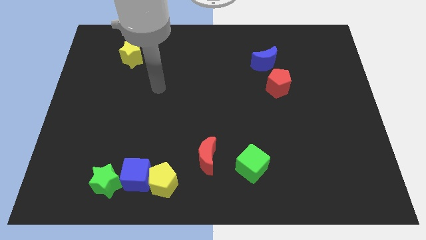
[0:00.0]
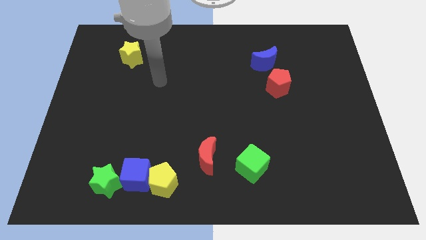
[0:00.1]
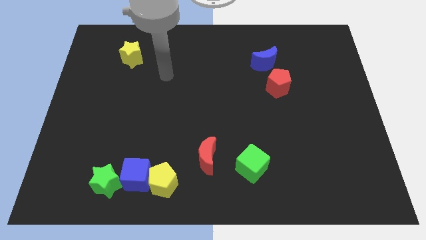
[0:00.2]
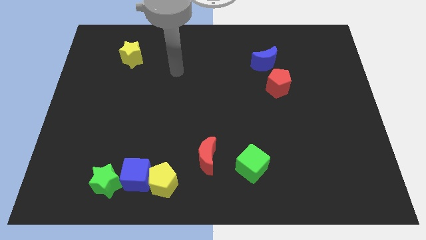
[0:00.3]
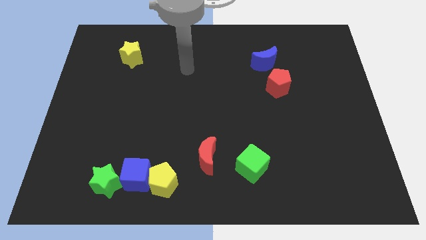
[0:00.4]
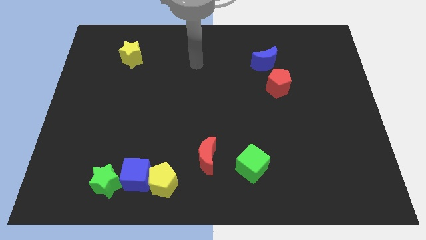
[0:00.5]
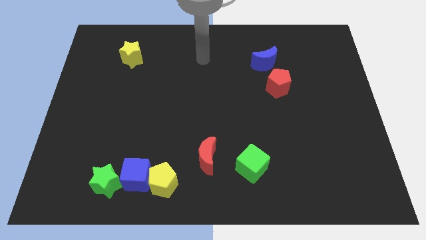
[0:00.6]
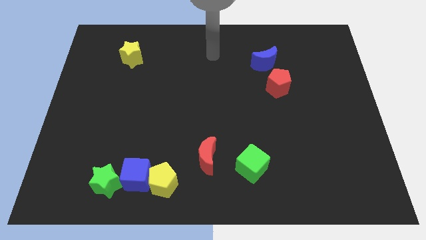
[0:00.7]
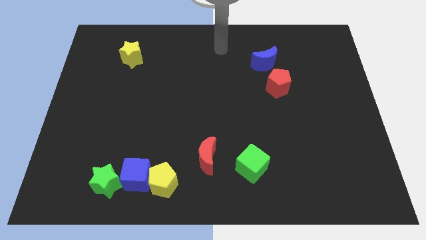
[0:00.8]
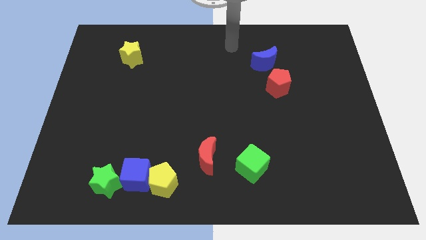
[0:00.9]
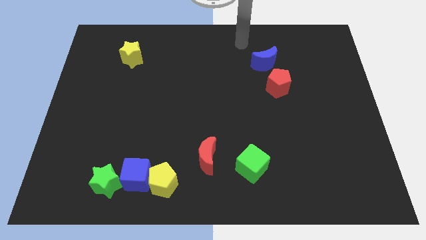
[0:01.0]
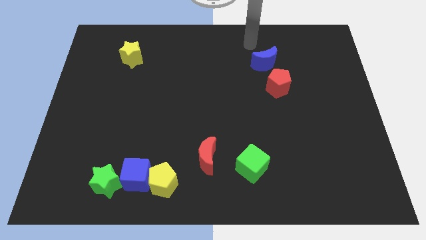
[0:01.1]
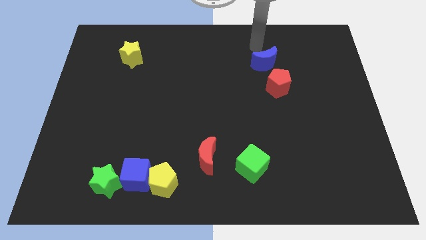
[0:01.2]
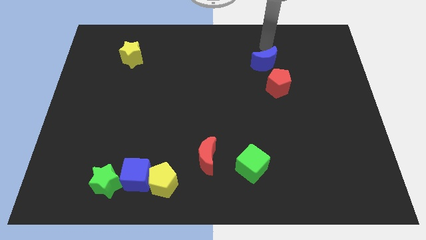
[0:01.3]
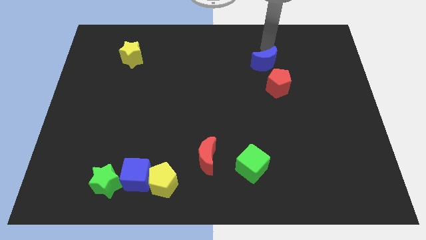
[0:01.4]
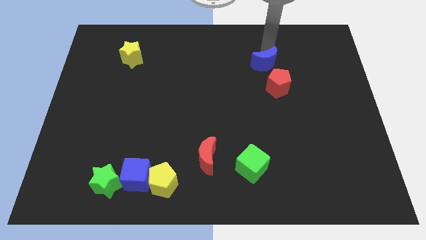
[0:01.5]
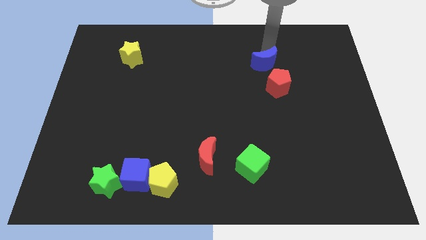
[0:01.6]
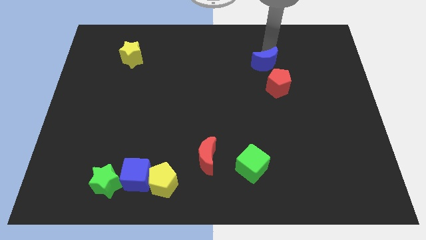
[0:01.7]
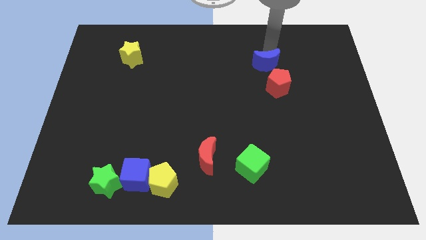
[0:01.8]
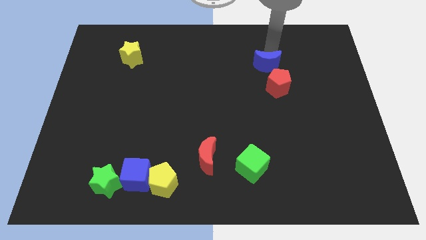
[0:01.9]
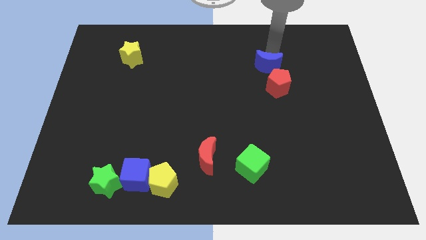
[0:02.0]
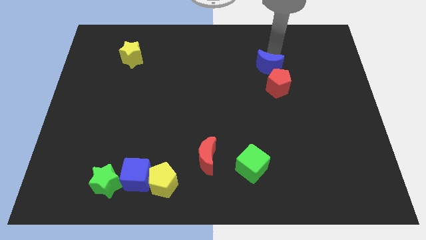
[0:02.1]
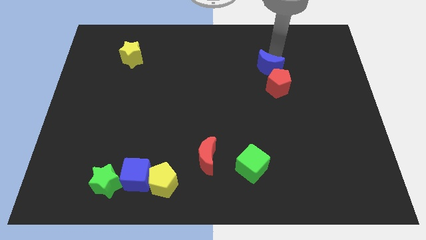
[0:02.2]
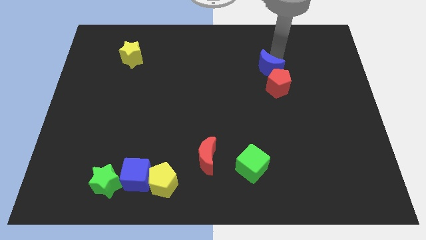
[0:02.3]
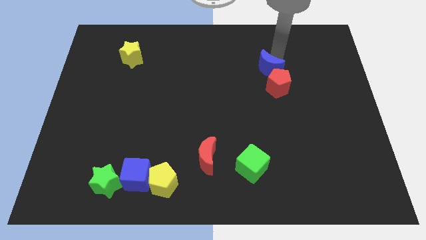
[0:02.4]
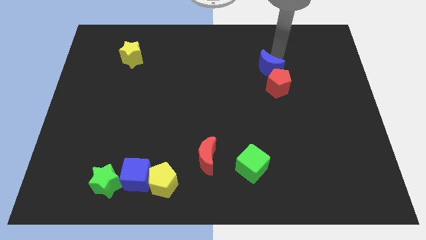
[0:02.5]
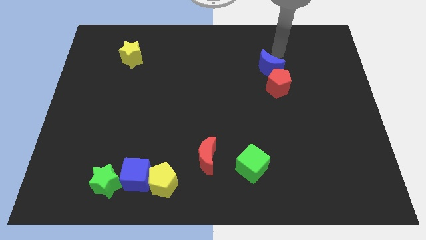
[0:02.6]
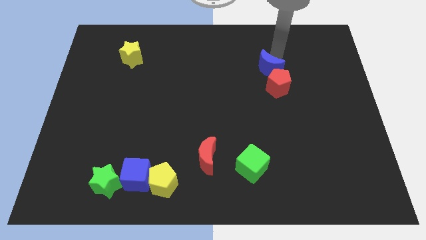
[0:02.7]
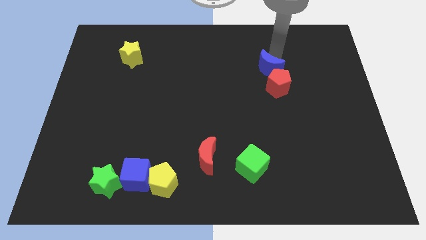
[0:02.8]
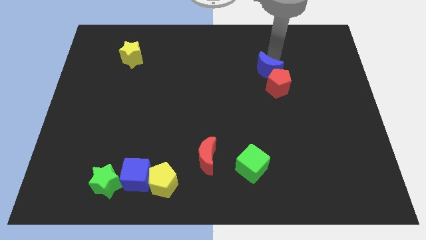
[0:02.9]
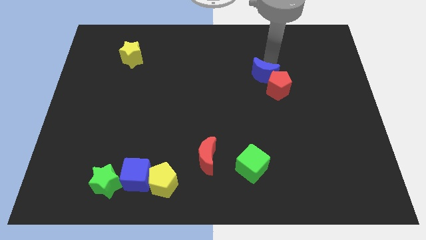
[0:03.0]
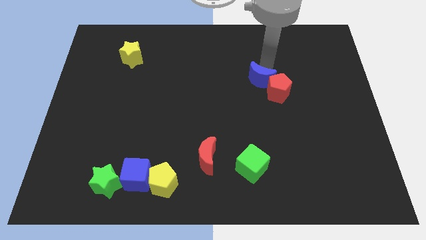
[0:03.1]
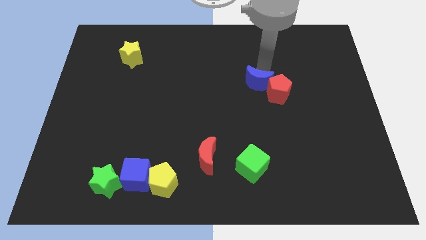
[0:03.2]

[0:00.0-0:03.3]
slide the blue moon a little bit down

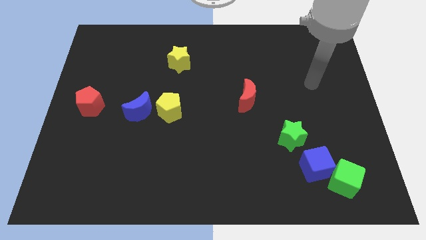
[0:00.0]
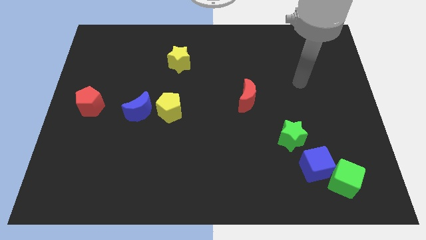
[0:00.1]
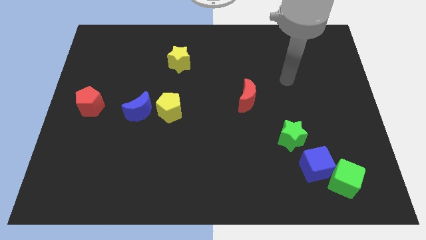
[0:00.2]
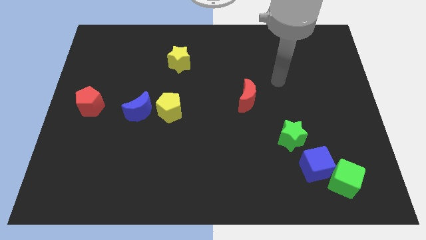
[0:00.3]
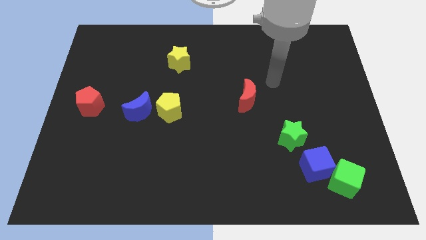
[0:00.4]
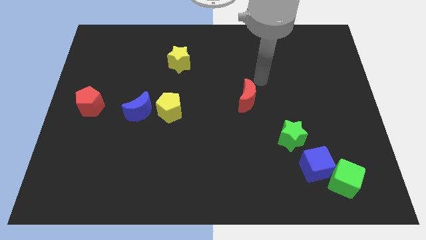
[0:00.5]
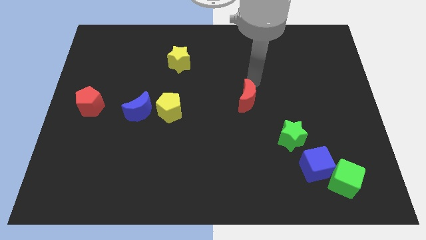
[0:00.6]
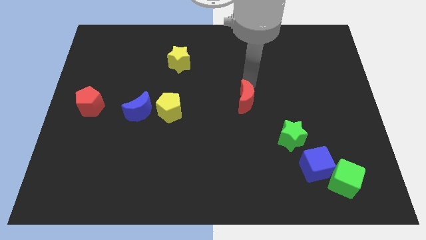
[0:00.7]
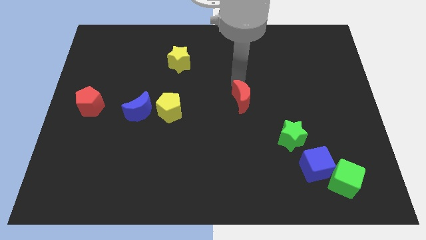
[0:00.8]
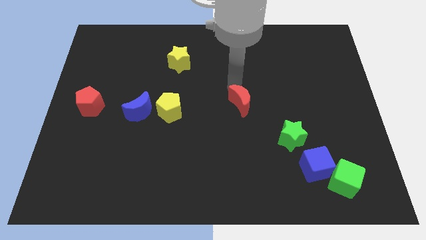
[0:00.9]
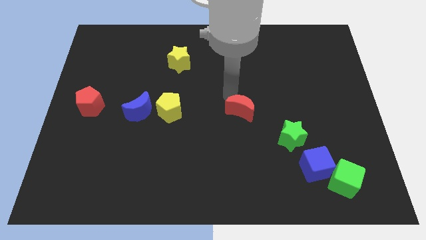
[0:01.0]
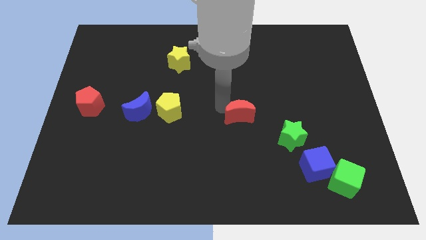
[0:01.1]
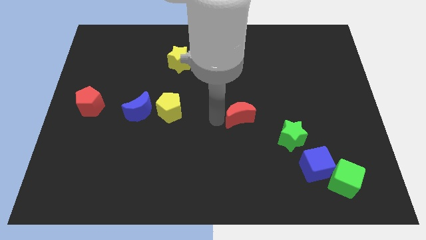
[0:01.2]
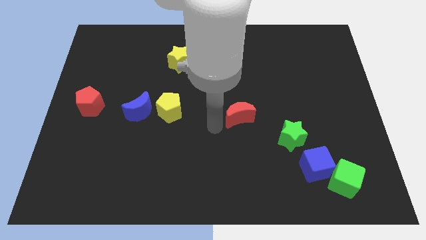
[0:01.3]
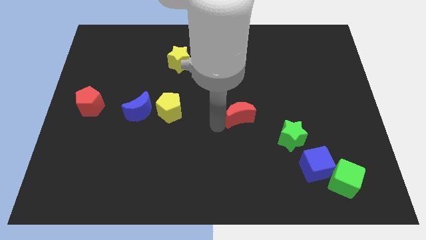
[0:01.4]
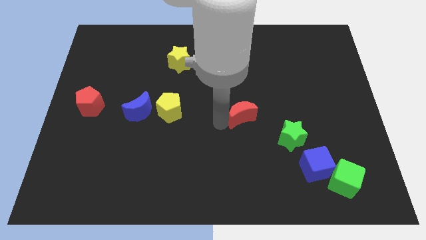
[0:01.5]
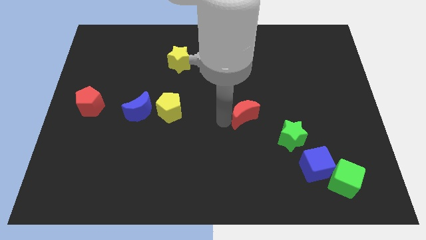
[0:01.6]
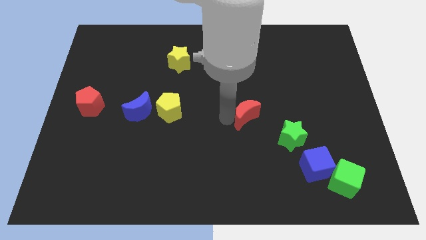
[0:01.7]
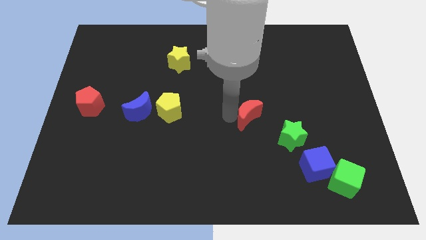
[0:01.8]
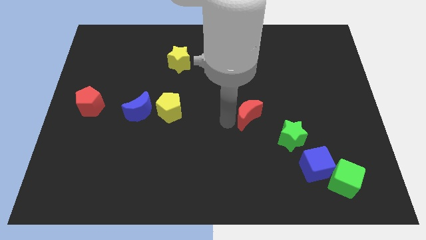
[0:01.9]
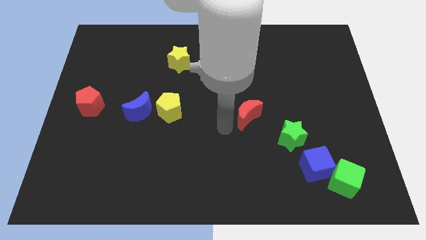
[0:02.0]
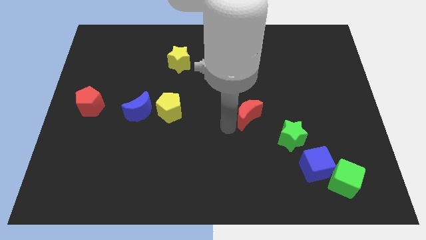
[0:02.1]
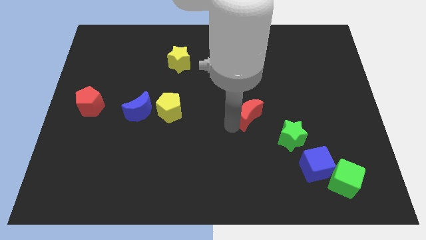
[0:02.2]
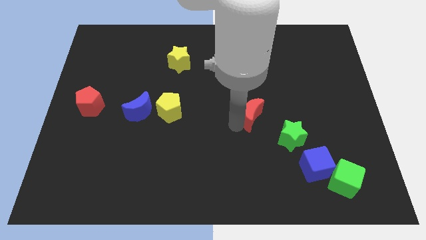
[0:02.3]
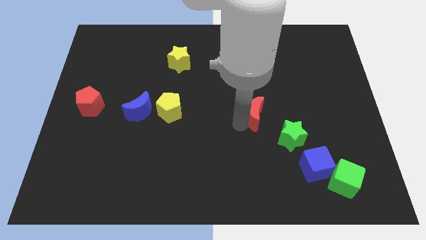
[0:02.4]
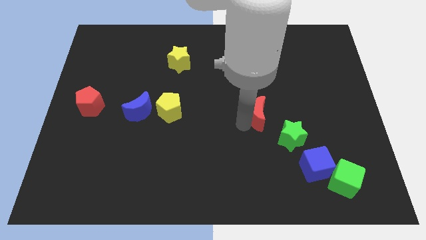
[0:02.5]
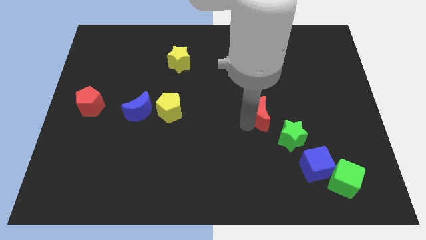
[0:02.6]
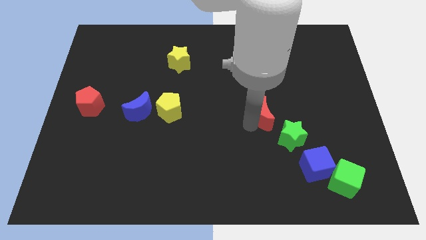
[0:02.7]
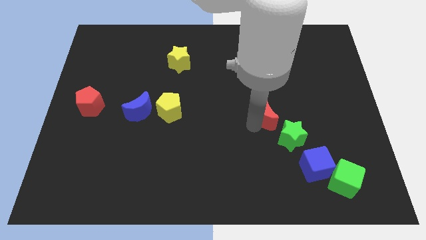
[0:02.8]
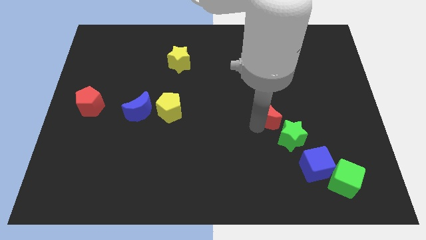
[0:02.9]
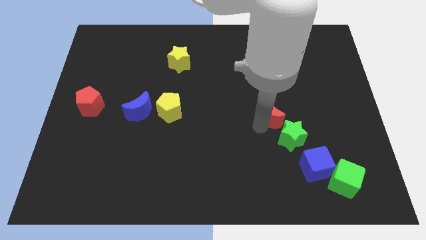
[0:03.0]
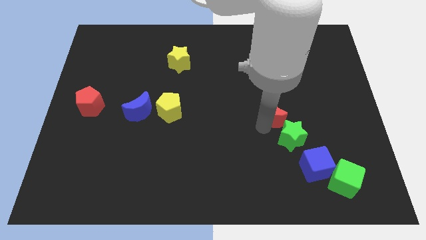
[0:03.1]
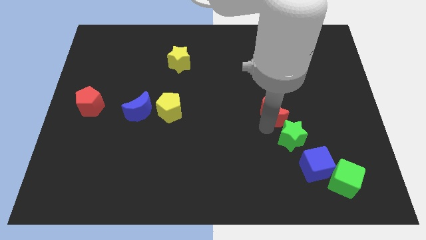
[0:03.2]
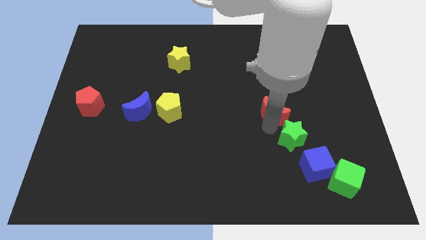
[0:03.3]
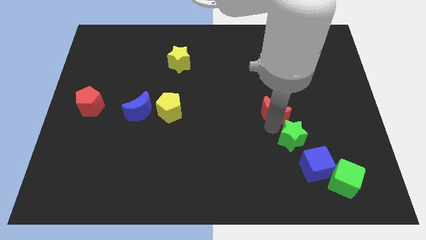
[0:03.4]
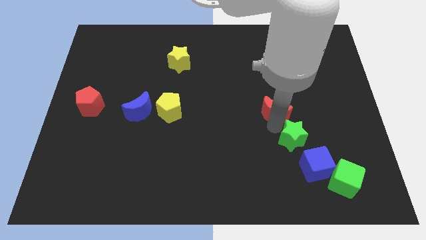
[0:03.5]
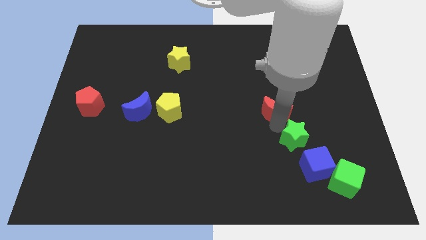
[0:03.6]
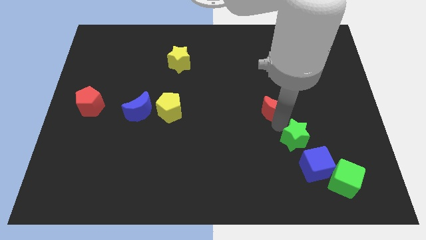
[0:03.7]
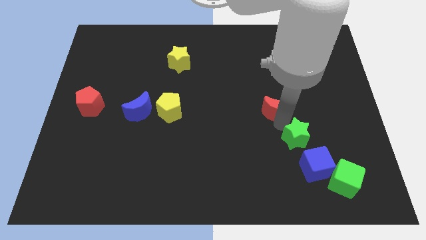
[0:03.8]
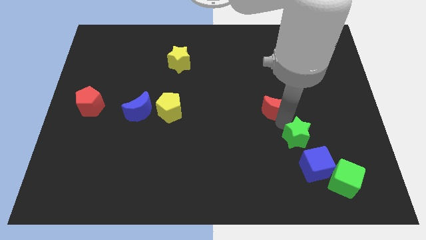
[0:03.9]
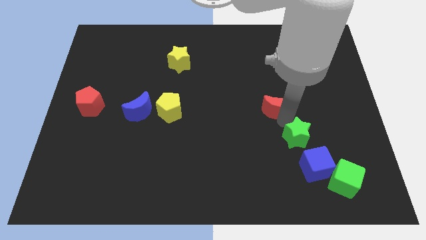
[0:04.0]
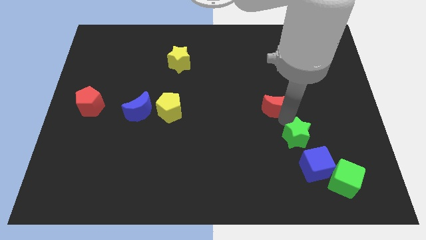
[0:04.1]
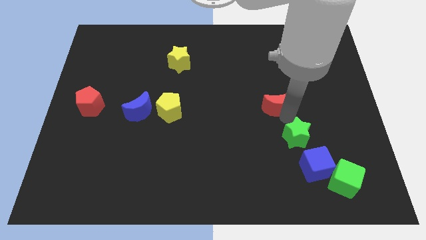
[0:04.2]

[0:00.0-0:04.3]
move the red moon right a little
